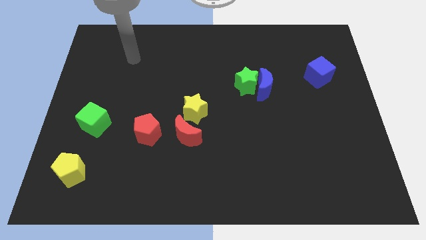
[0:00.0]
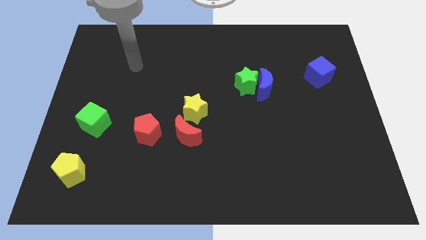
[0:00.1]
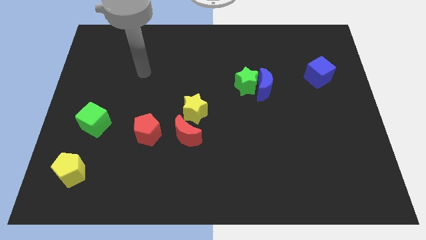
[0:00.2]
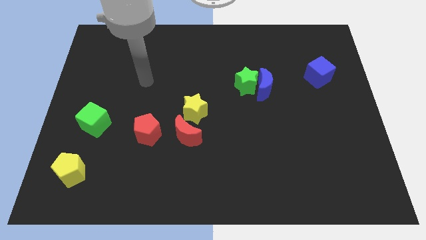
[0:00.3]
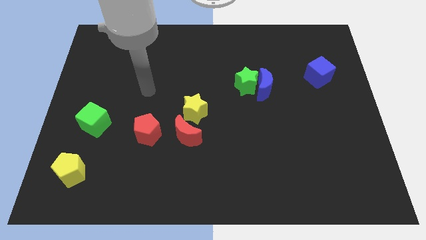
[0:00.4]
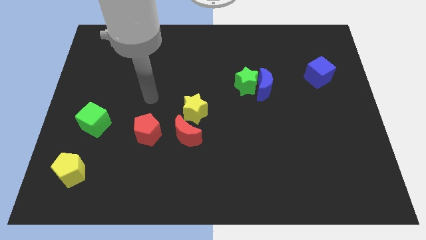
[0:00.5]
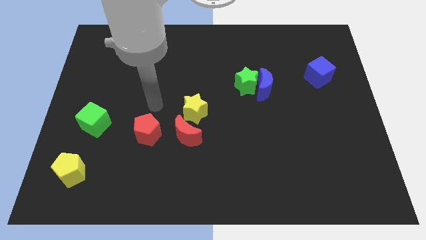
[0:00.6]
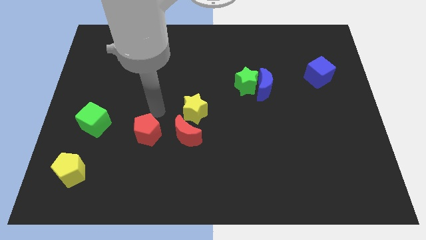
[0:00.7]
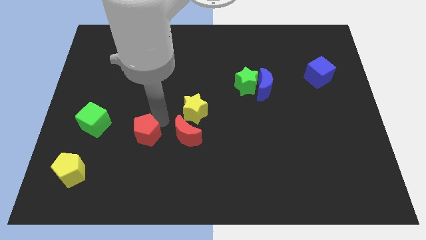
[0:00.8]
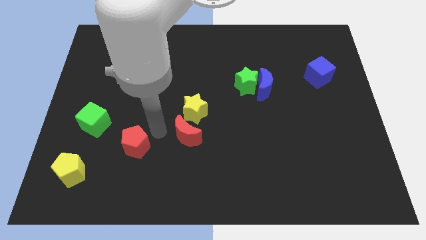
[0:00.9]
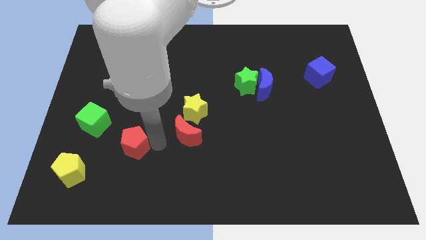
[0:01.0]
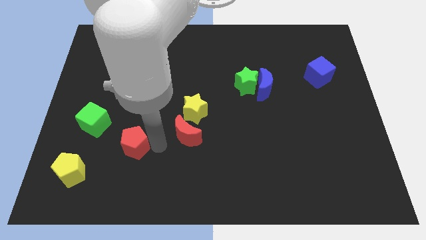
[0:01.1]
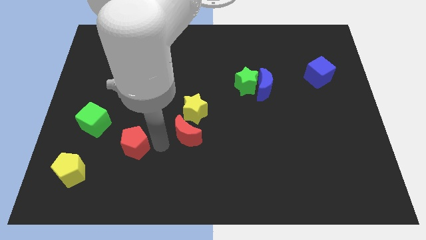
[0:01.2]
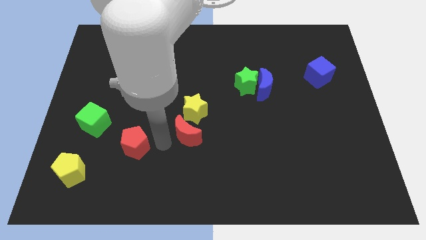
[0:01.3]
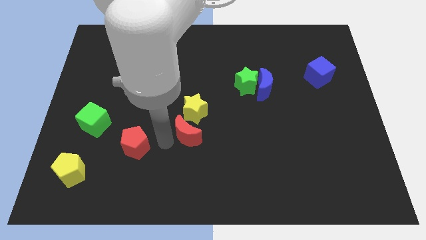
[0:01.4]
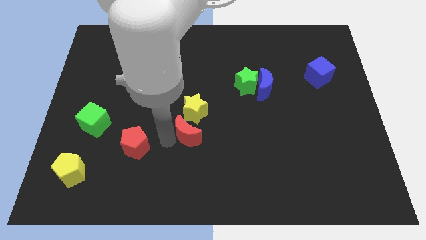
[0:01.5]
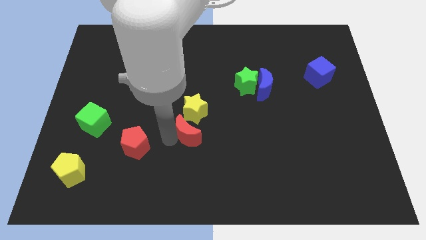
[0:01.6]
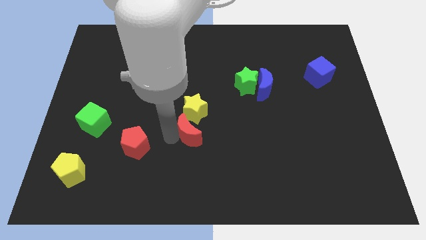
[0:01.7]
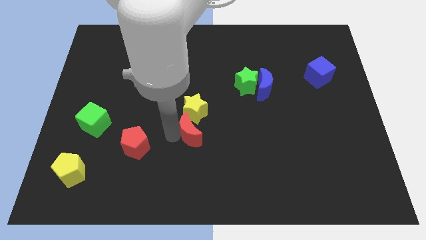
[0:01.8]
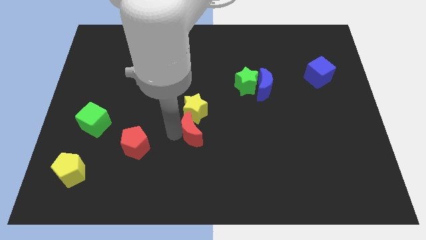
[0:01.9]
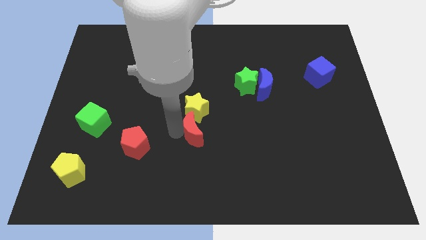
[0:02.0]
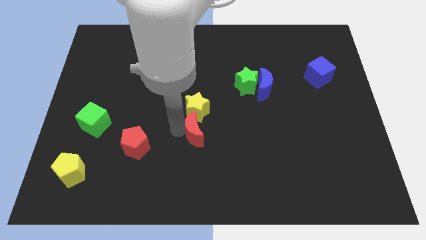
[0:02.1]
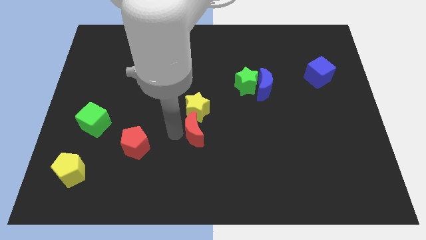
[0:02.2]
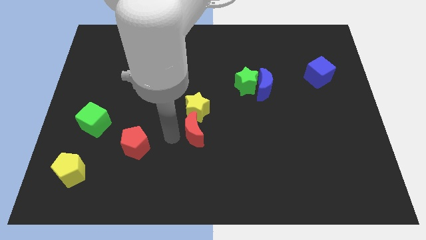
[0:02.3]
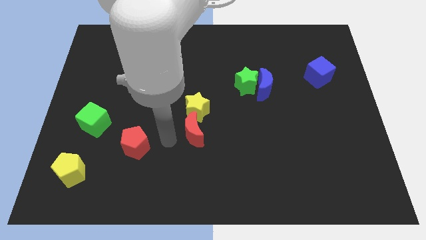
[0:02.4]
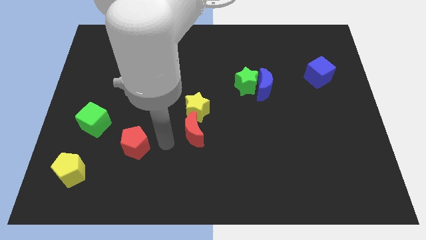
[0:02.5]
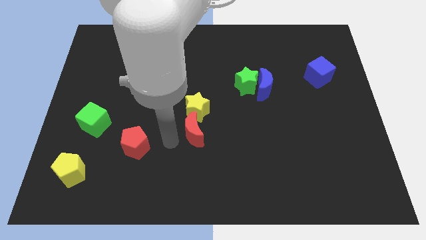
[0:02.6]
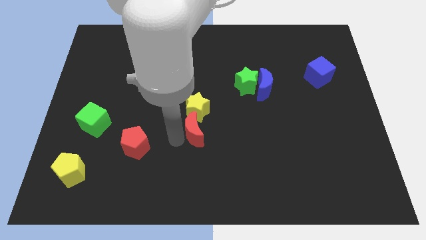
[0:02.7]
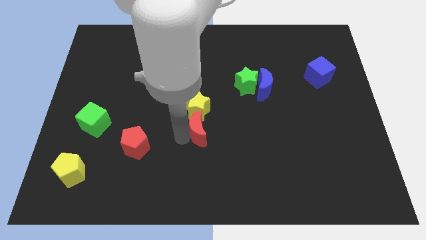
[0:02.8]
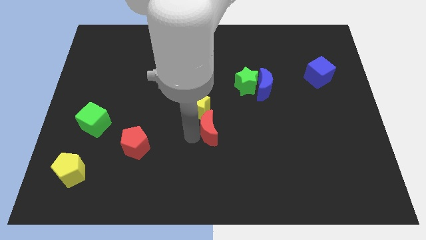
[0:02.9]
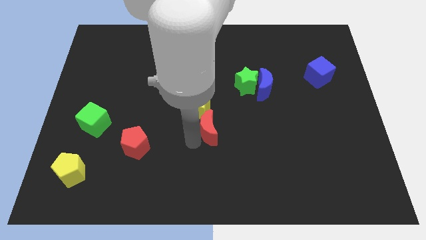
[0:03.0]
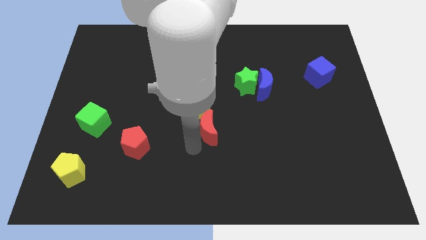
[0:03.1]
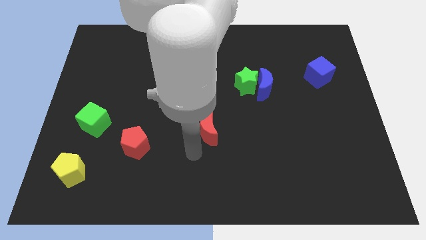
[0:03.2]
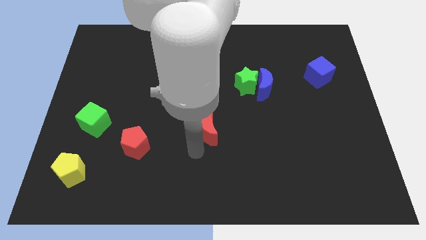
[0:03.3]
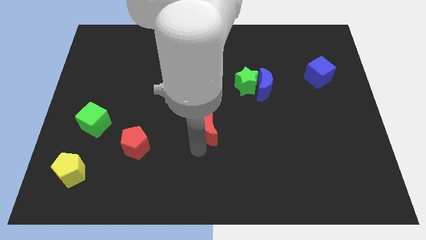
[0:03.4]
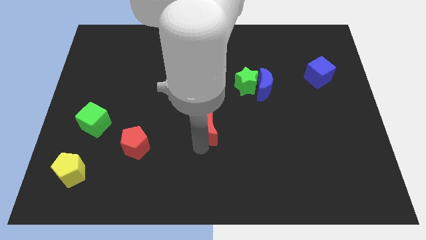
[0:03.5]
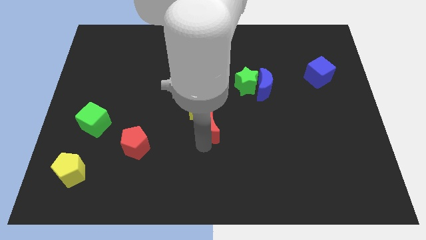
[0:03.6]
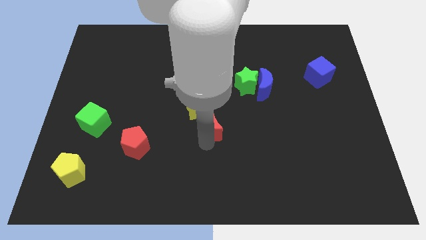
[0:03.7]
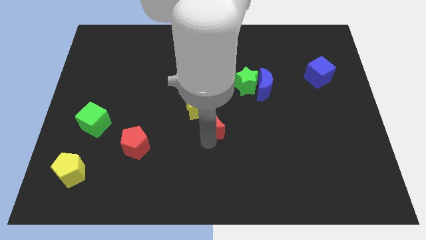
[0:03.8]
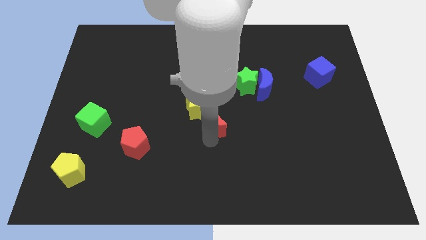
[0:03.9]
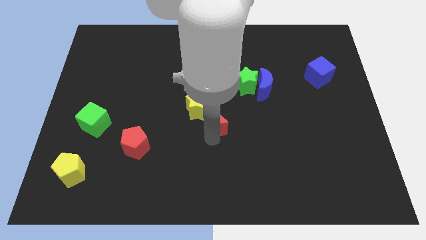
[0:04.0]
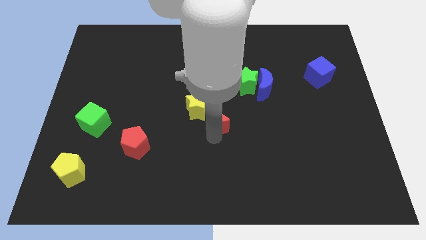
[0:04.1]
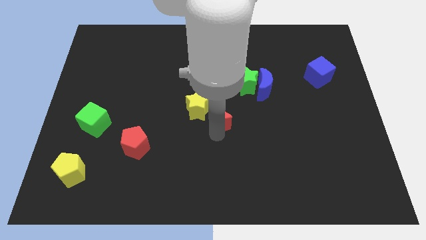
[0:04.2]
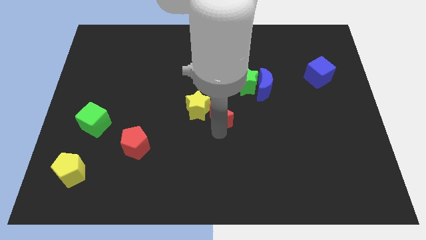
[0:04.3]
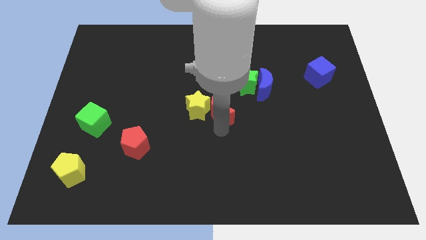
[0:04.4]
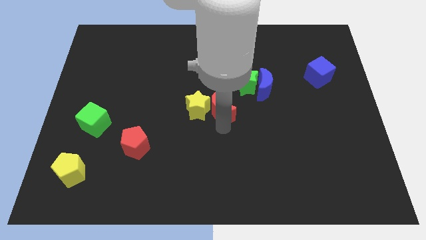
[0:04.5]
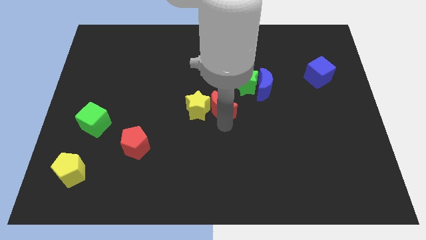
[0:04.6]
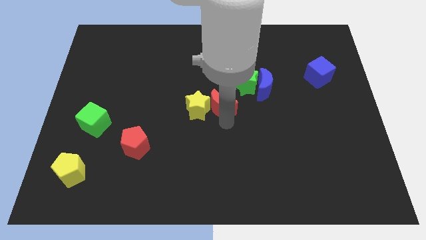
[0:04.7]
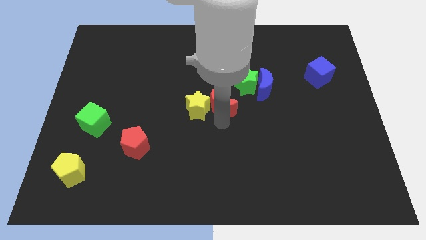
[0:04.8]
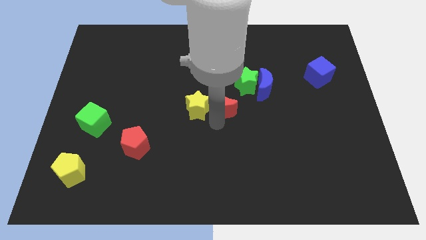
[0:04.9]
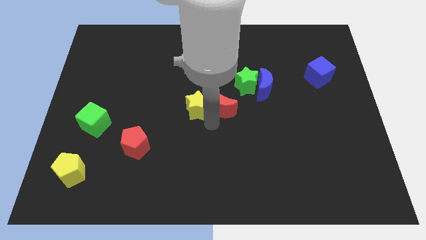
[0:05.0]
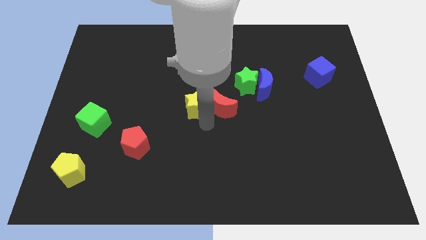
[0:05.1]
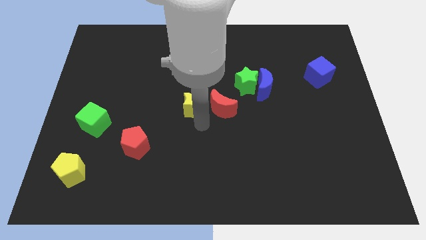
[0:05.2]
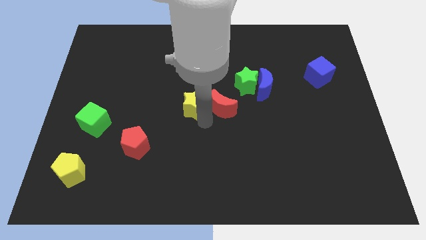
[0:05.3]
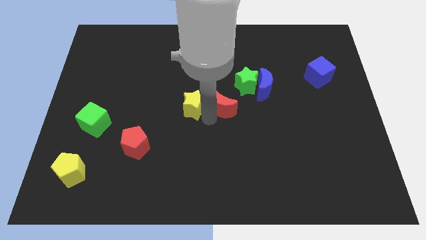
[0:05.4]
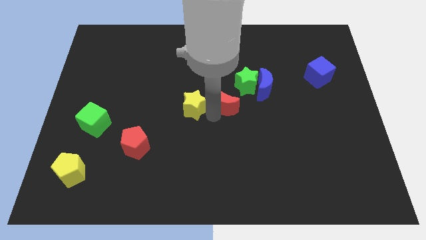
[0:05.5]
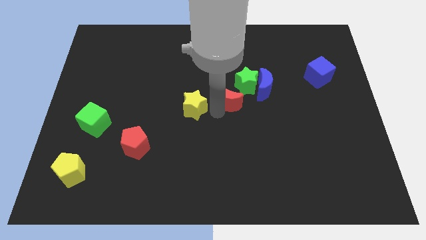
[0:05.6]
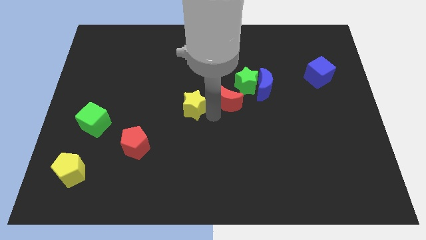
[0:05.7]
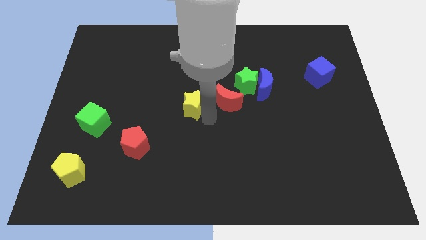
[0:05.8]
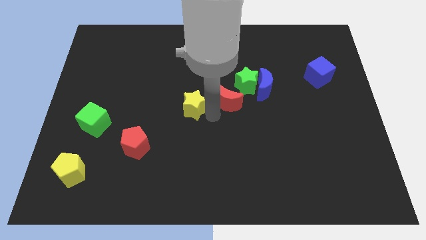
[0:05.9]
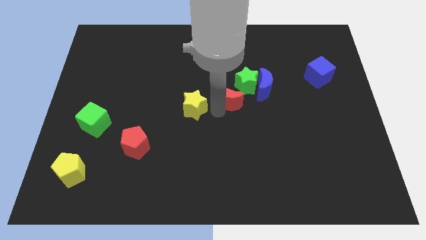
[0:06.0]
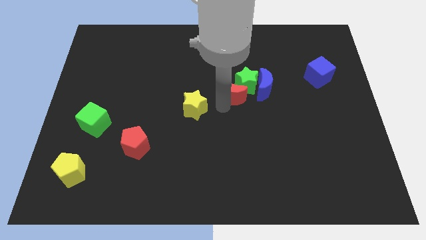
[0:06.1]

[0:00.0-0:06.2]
move the red moon next to the green star
